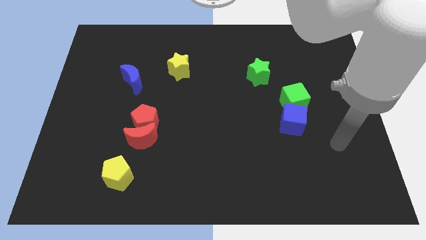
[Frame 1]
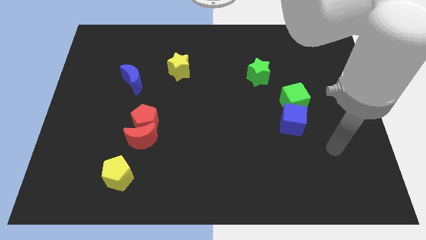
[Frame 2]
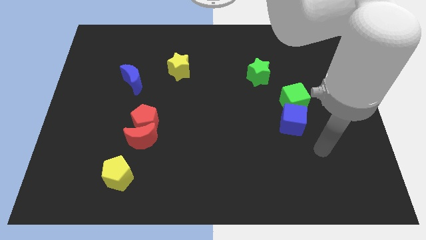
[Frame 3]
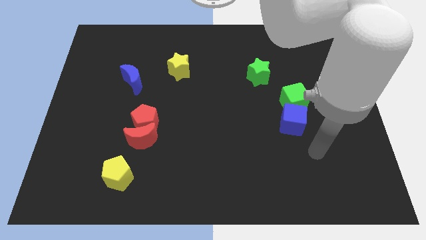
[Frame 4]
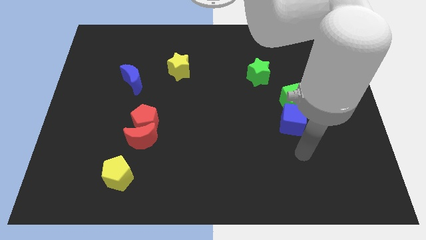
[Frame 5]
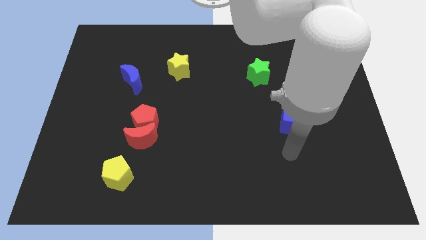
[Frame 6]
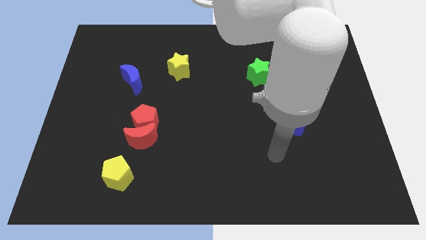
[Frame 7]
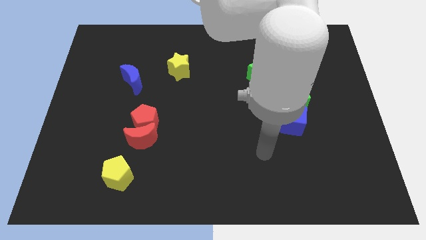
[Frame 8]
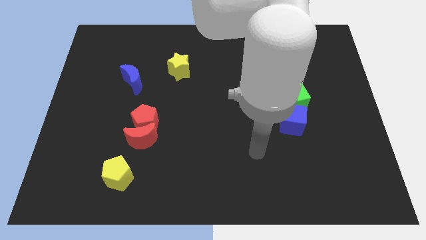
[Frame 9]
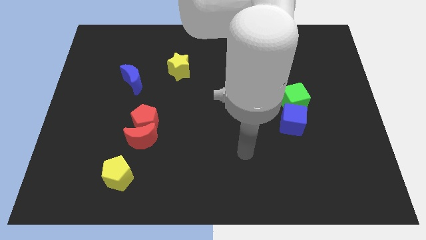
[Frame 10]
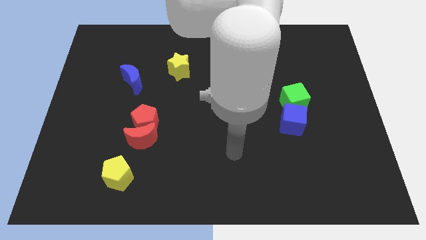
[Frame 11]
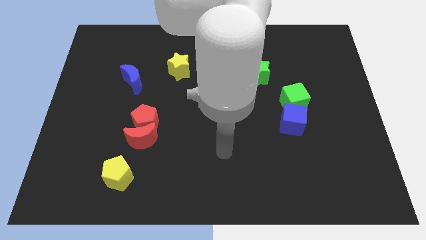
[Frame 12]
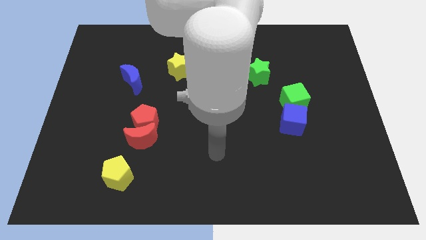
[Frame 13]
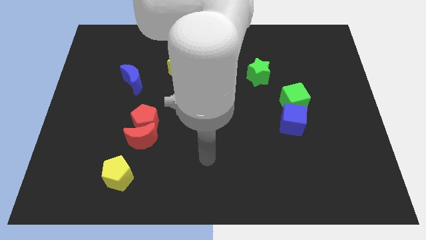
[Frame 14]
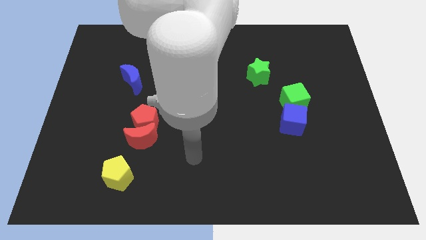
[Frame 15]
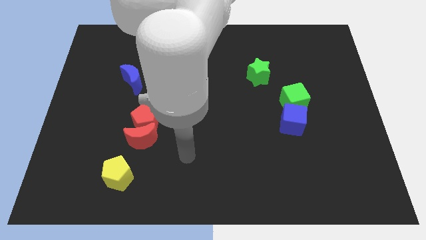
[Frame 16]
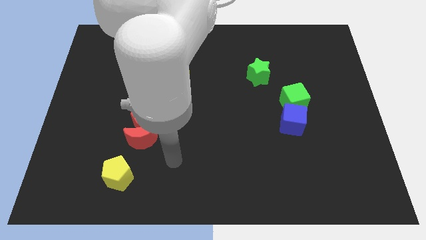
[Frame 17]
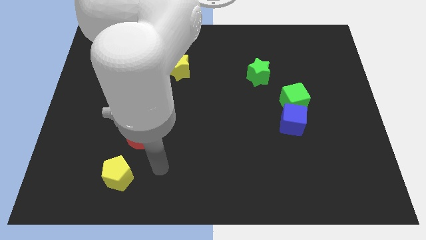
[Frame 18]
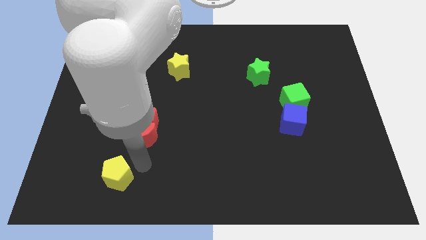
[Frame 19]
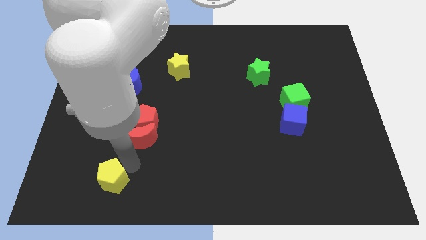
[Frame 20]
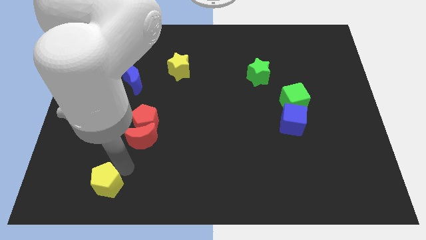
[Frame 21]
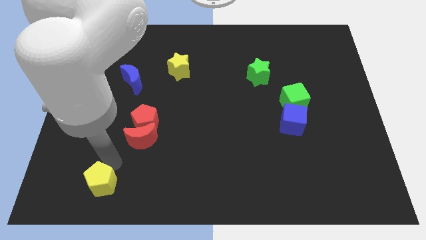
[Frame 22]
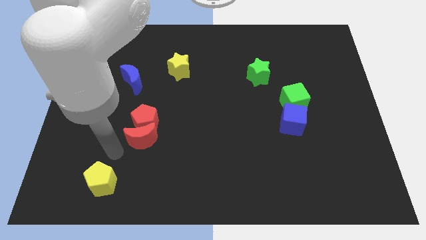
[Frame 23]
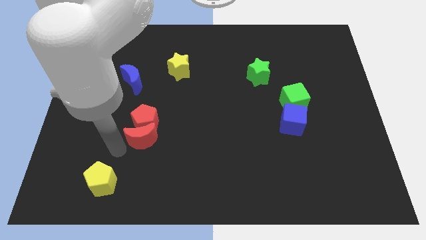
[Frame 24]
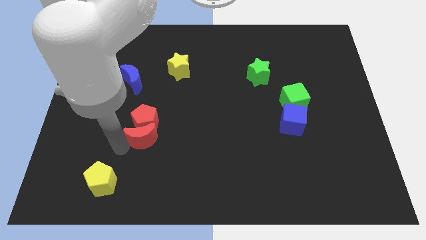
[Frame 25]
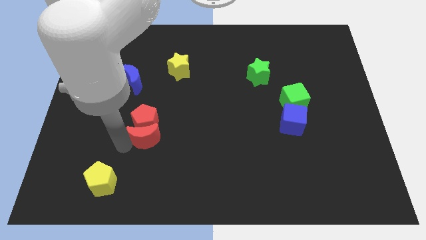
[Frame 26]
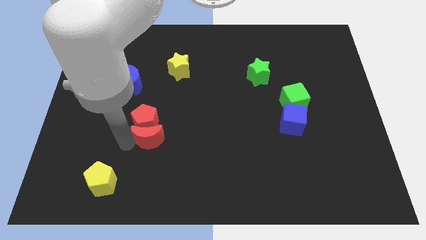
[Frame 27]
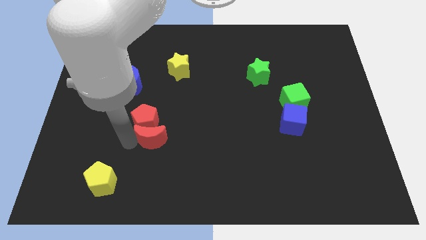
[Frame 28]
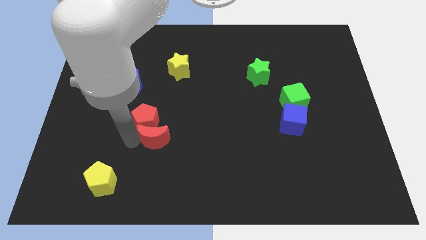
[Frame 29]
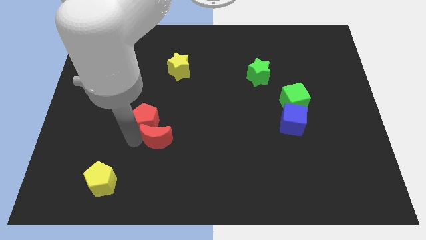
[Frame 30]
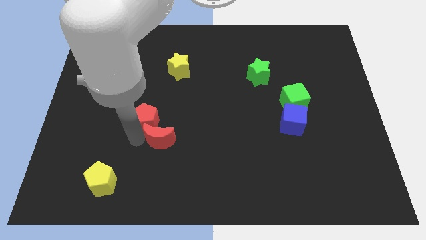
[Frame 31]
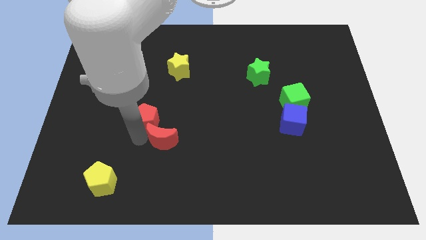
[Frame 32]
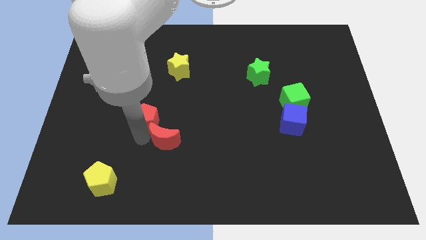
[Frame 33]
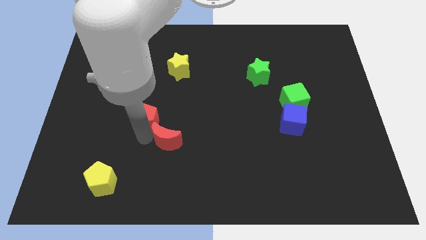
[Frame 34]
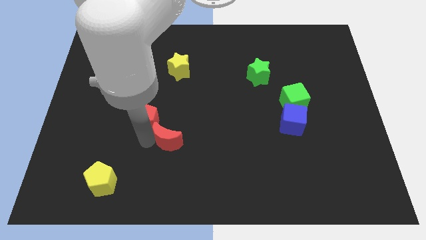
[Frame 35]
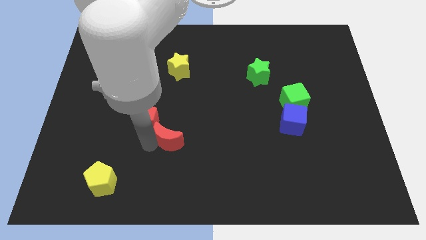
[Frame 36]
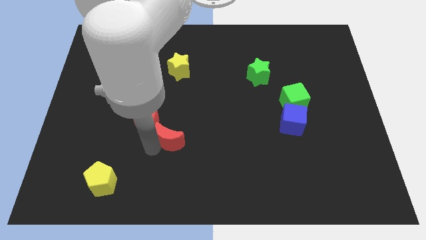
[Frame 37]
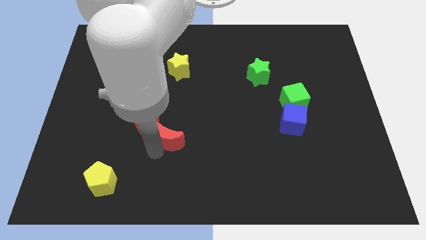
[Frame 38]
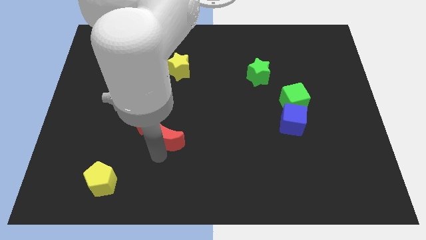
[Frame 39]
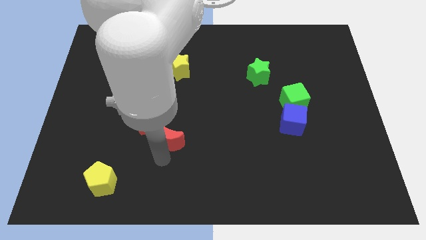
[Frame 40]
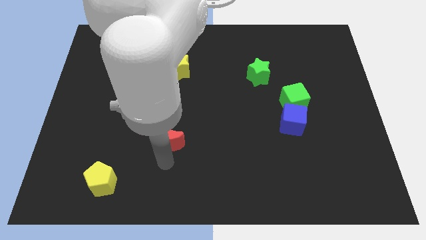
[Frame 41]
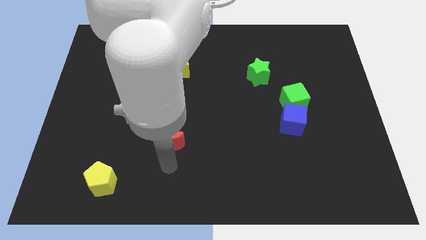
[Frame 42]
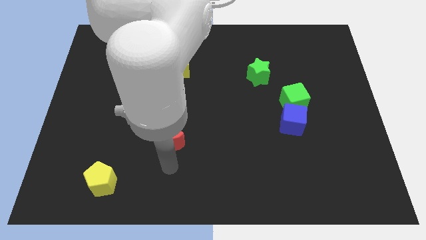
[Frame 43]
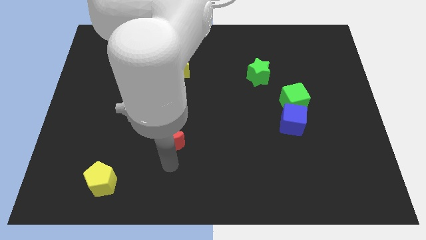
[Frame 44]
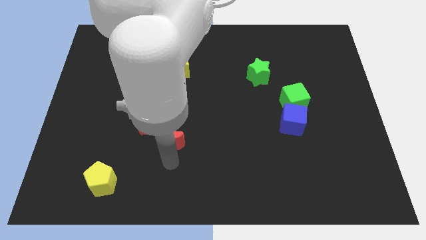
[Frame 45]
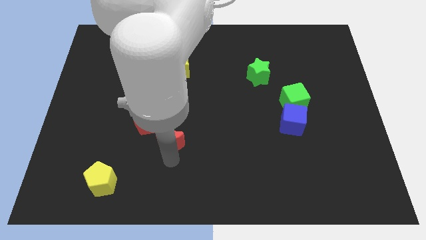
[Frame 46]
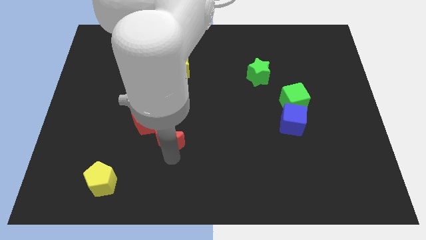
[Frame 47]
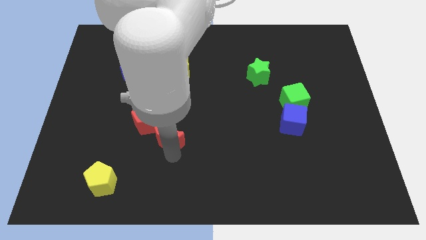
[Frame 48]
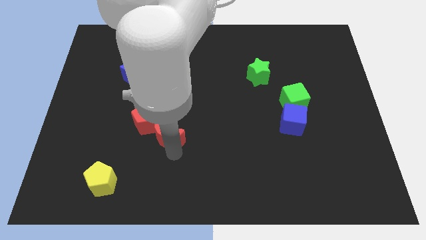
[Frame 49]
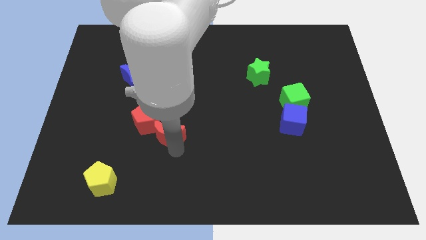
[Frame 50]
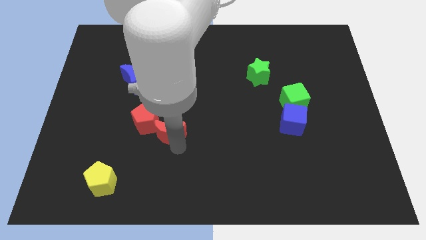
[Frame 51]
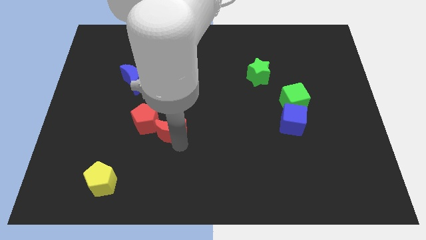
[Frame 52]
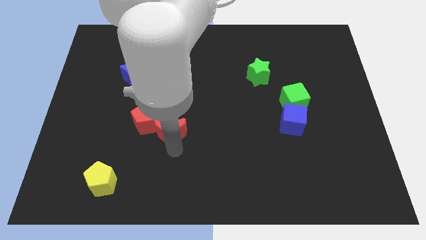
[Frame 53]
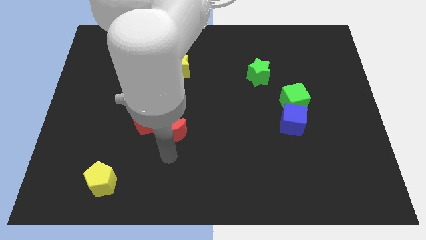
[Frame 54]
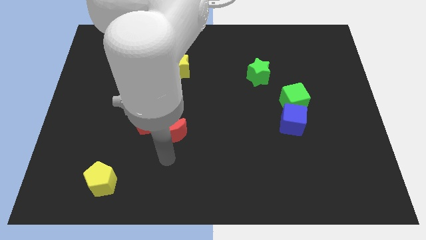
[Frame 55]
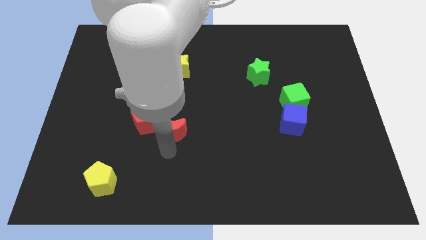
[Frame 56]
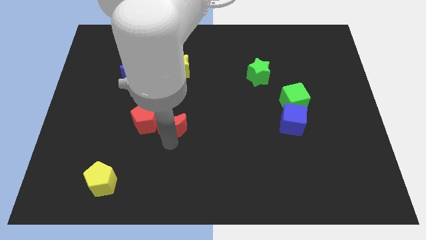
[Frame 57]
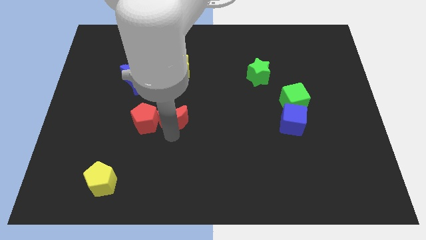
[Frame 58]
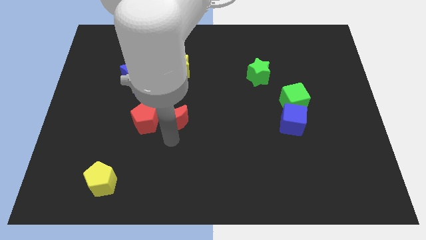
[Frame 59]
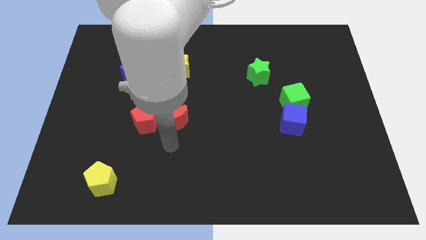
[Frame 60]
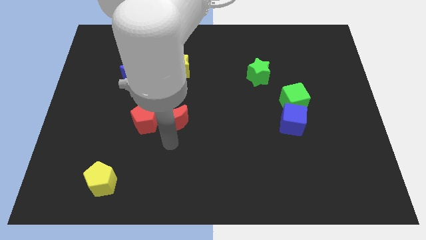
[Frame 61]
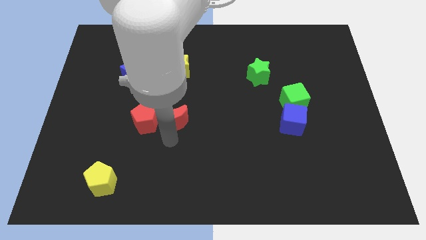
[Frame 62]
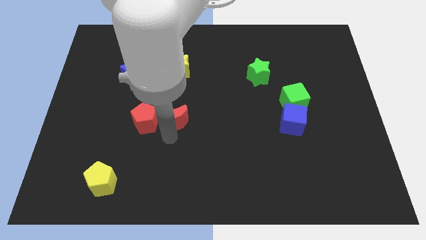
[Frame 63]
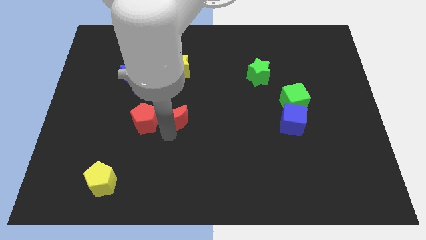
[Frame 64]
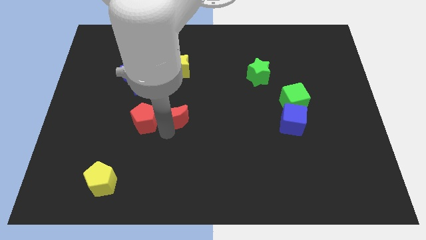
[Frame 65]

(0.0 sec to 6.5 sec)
put the red moon below the yellow star
